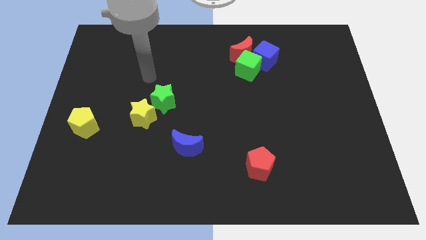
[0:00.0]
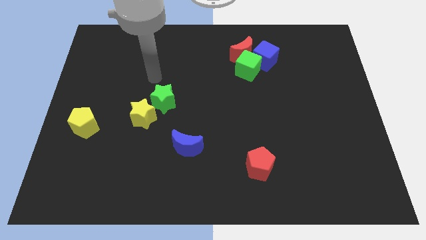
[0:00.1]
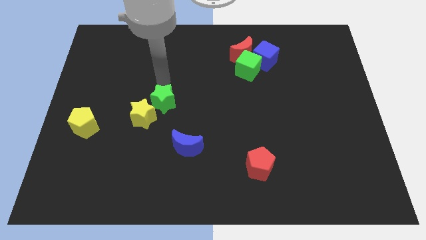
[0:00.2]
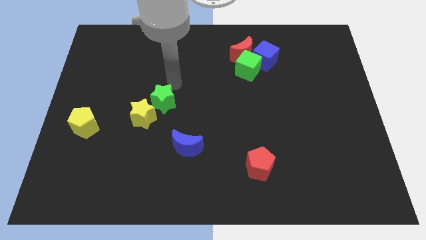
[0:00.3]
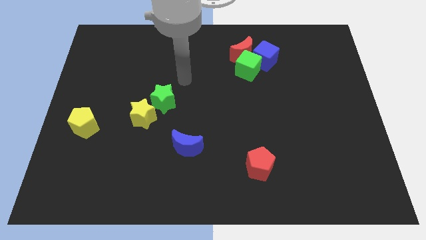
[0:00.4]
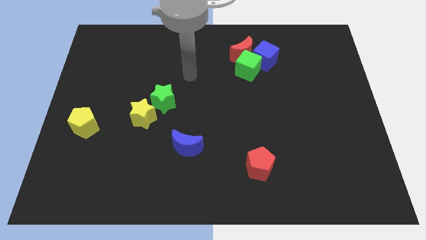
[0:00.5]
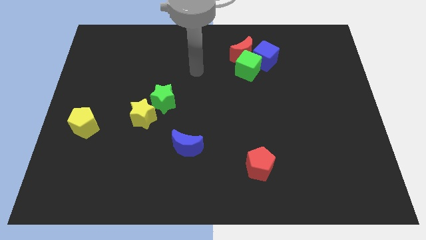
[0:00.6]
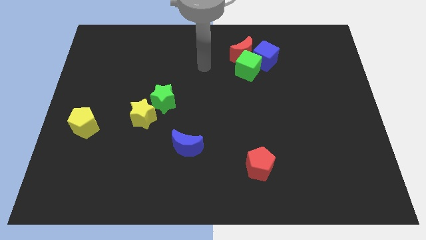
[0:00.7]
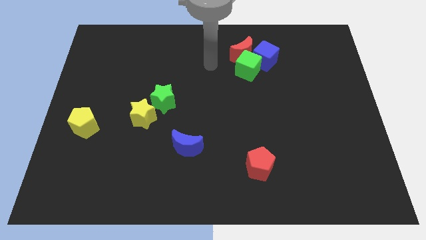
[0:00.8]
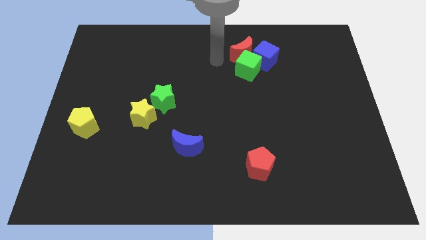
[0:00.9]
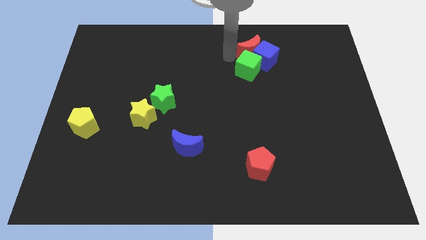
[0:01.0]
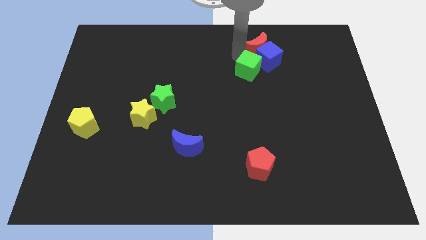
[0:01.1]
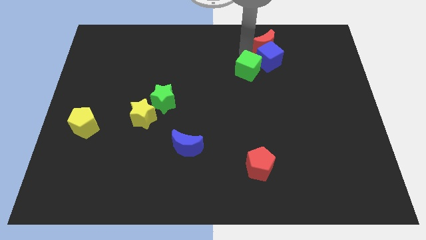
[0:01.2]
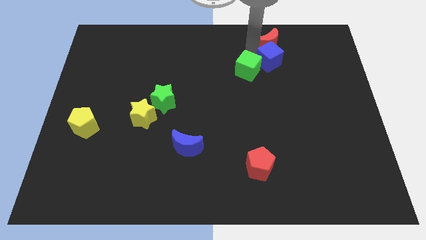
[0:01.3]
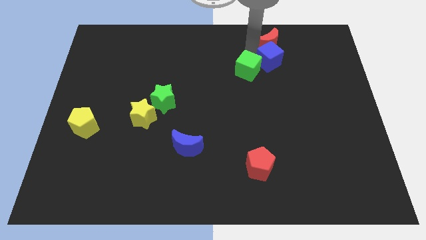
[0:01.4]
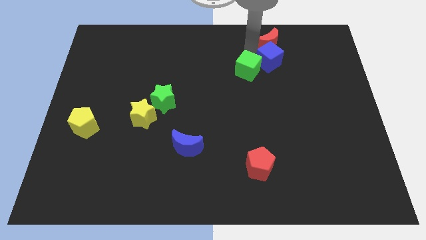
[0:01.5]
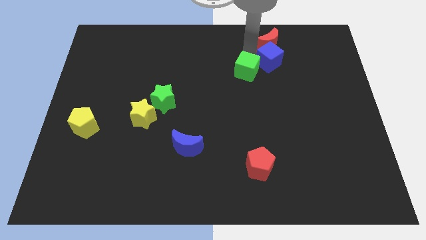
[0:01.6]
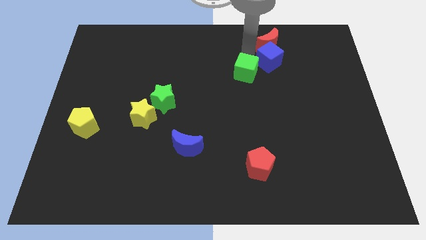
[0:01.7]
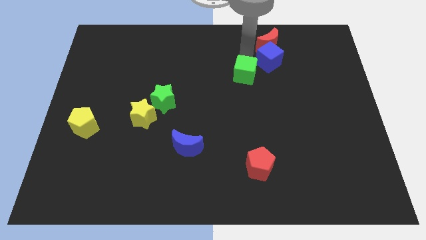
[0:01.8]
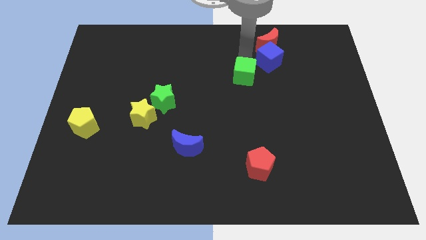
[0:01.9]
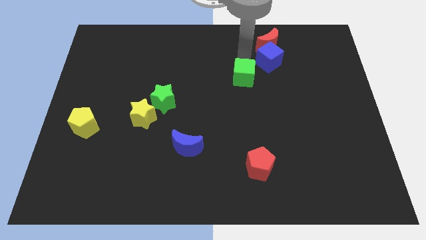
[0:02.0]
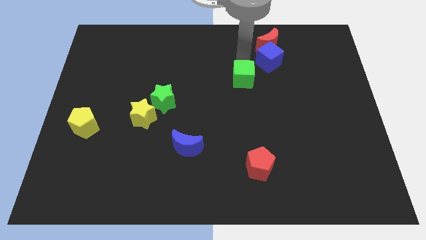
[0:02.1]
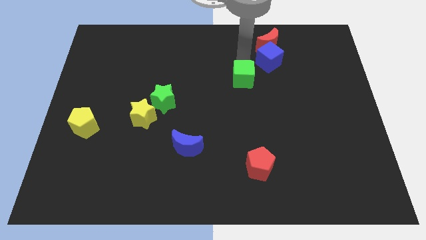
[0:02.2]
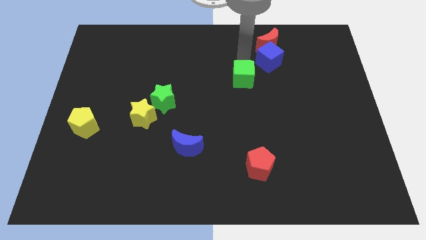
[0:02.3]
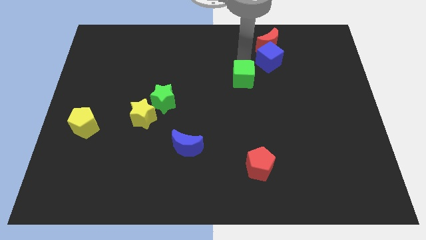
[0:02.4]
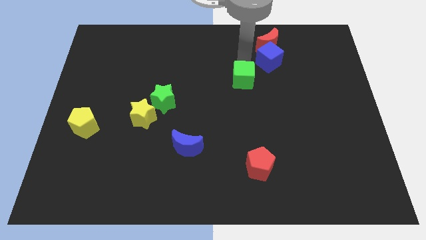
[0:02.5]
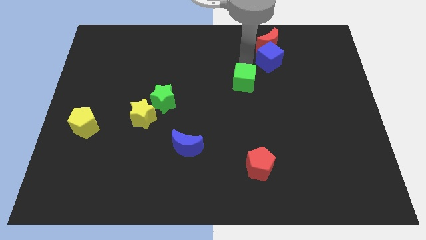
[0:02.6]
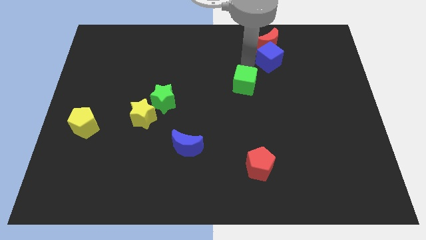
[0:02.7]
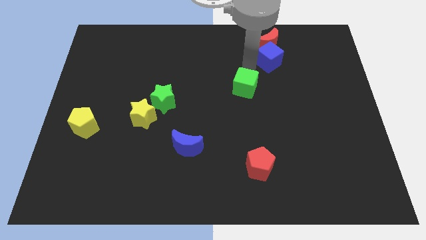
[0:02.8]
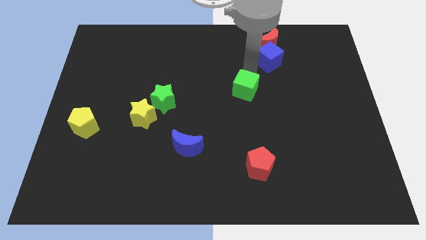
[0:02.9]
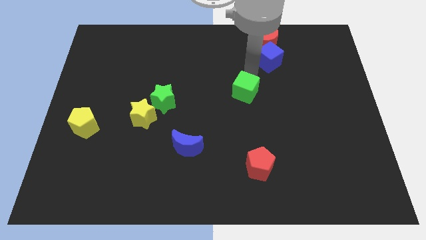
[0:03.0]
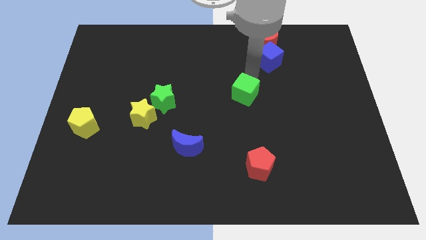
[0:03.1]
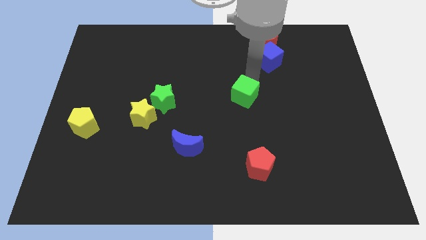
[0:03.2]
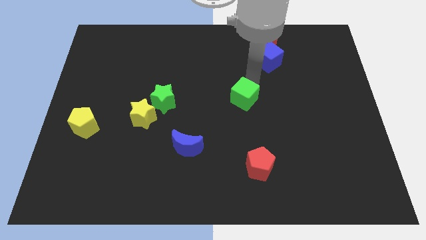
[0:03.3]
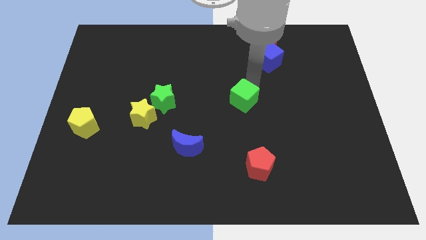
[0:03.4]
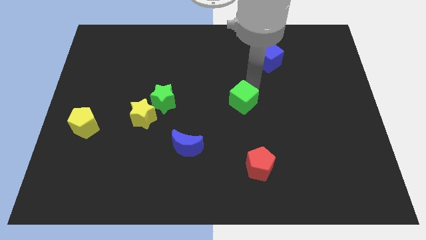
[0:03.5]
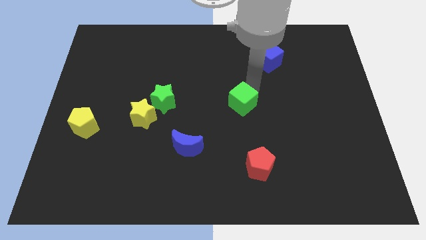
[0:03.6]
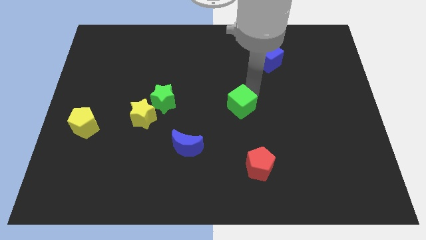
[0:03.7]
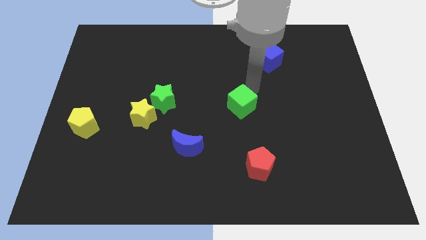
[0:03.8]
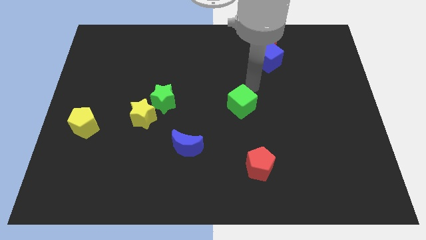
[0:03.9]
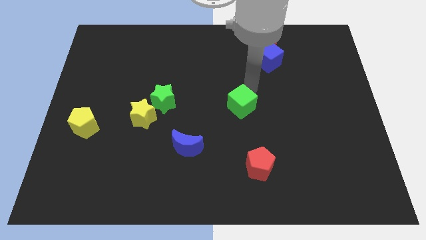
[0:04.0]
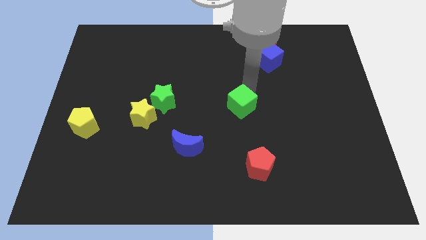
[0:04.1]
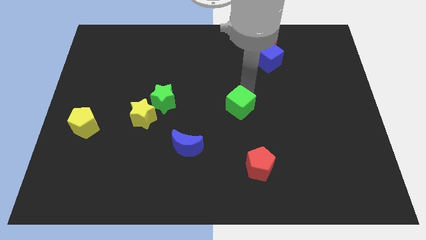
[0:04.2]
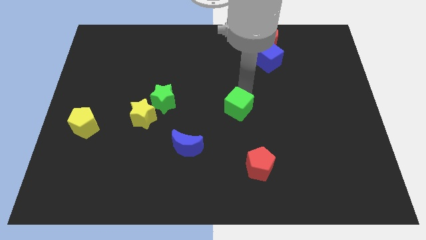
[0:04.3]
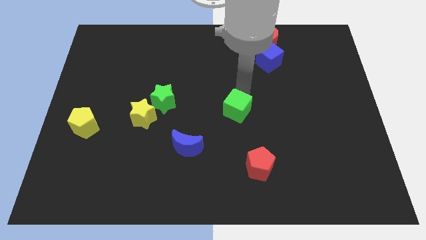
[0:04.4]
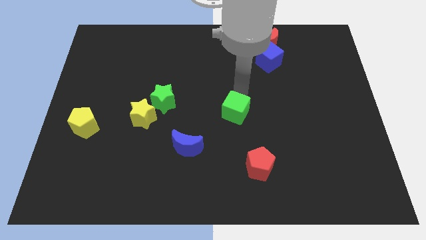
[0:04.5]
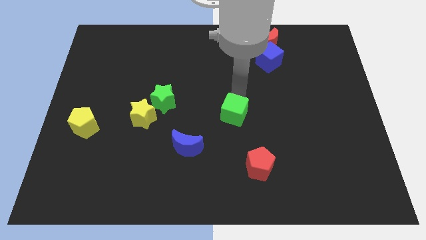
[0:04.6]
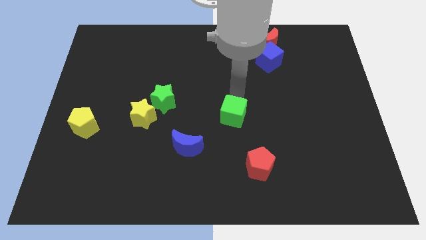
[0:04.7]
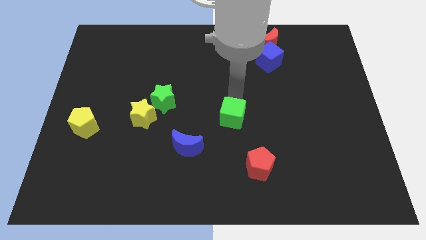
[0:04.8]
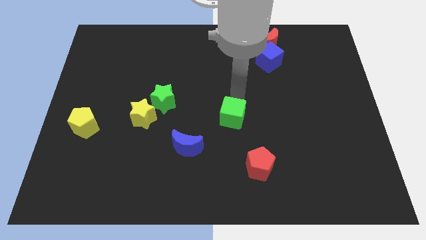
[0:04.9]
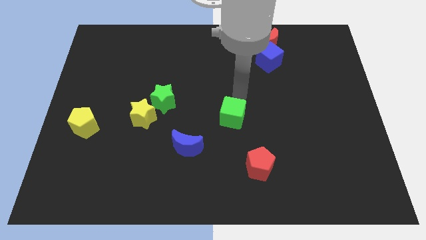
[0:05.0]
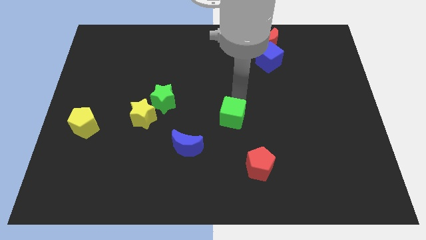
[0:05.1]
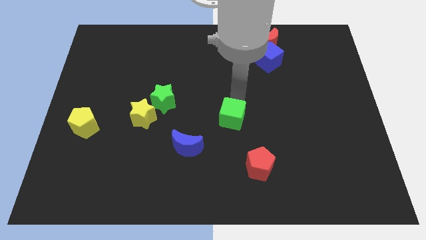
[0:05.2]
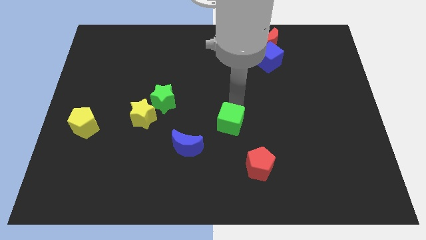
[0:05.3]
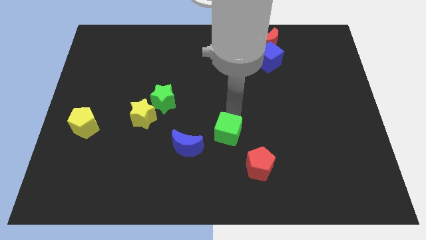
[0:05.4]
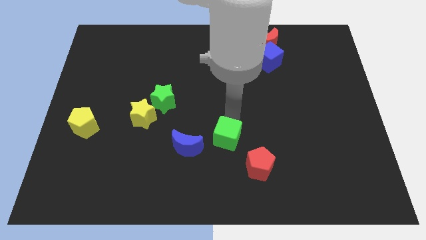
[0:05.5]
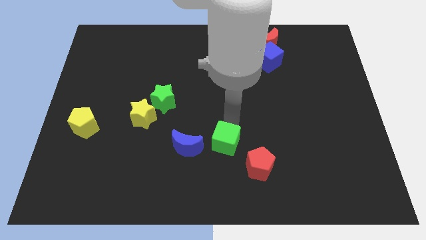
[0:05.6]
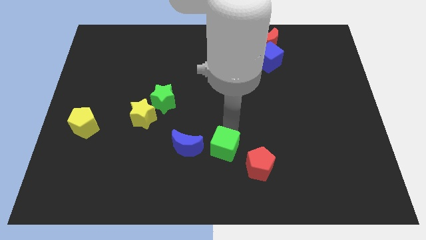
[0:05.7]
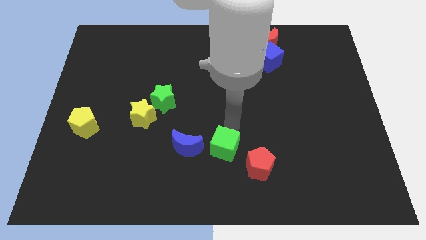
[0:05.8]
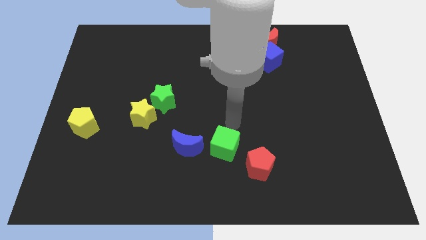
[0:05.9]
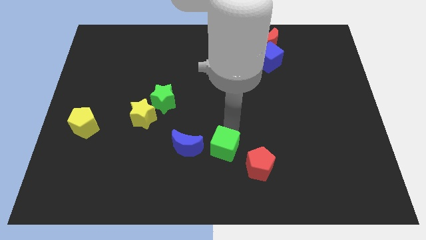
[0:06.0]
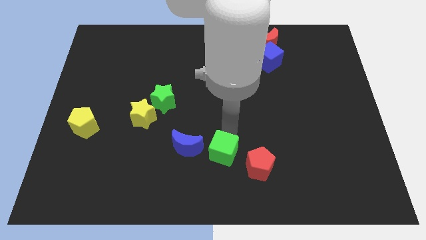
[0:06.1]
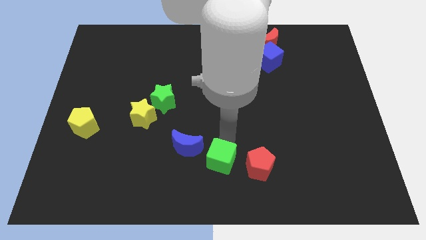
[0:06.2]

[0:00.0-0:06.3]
push the green cube to the bottom side
